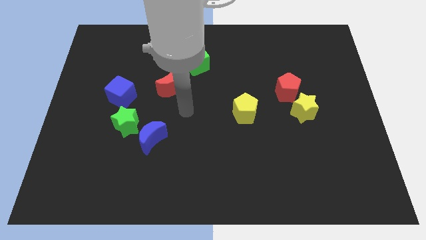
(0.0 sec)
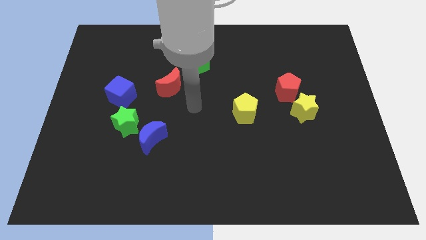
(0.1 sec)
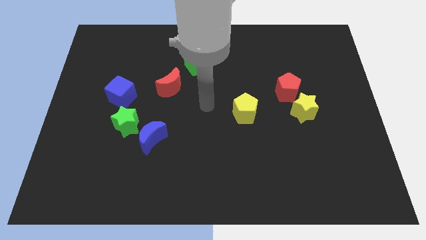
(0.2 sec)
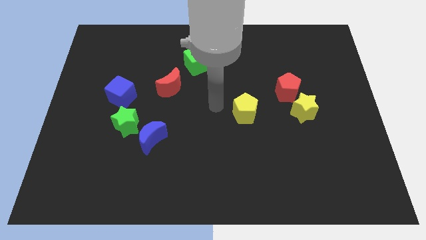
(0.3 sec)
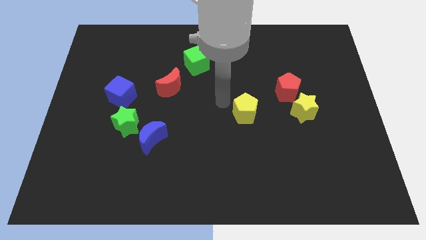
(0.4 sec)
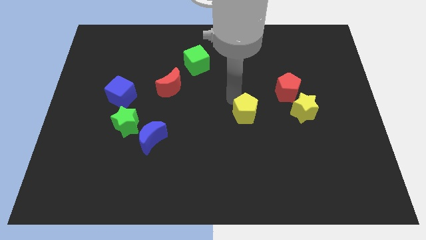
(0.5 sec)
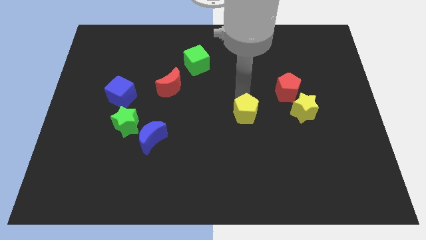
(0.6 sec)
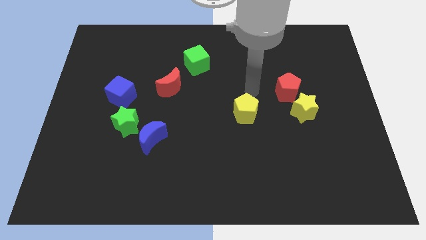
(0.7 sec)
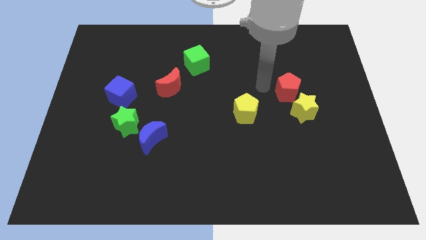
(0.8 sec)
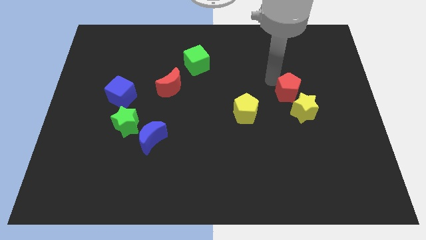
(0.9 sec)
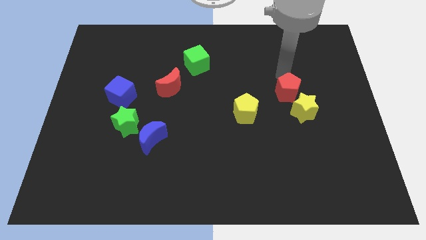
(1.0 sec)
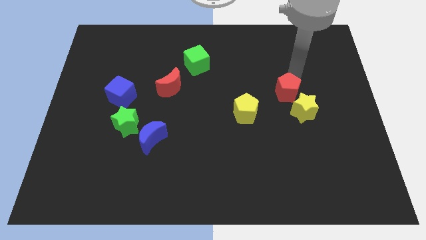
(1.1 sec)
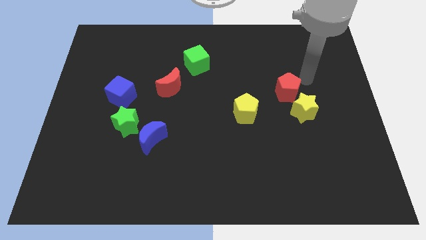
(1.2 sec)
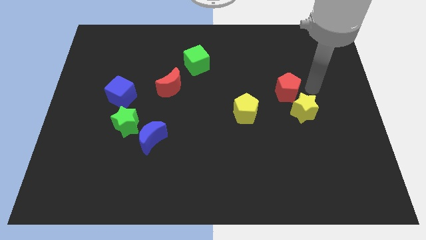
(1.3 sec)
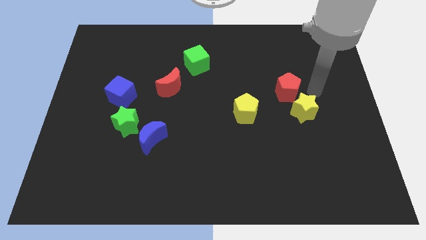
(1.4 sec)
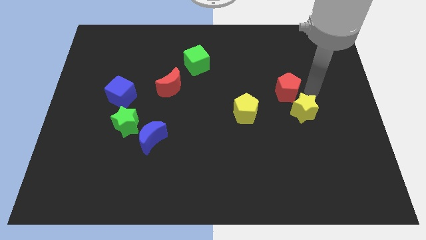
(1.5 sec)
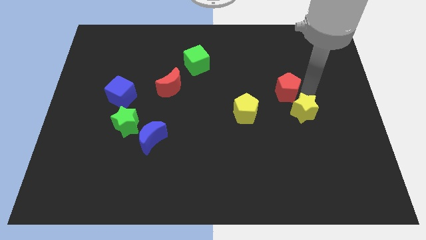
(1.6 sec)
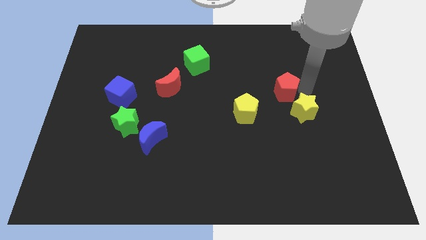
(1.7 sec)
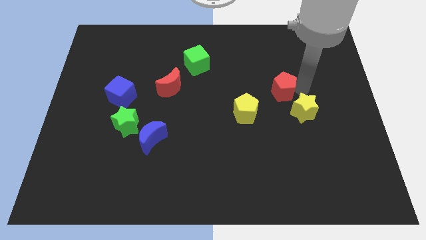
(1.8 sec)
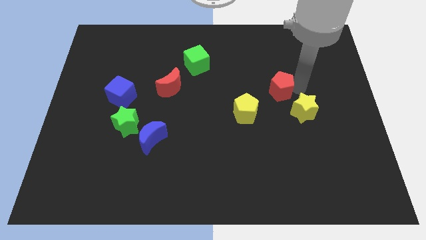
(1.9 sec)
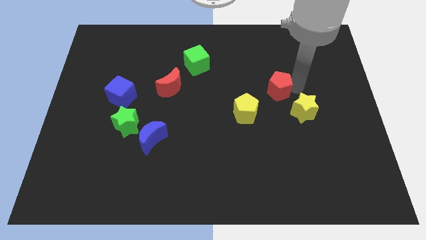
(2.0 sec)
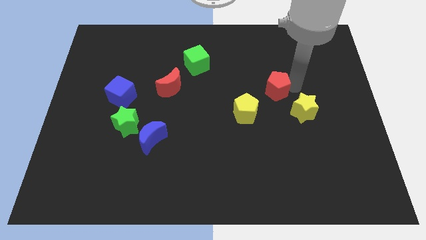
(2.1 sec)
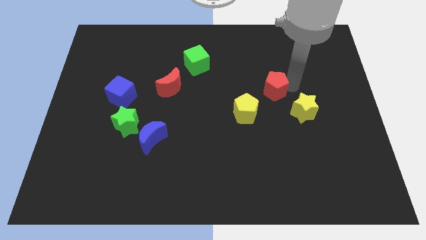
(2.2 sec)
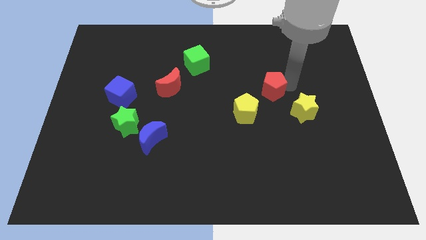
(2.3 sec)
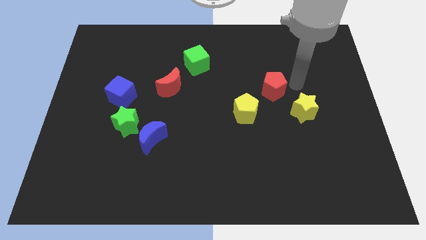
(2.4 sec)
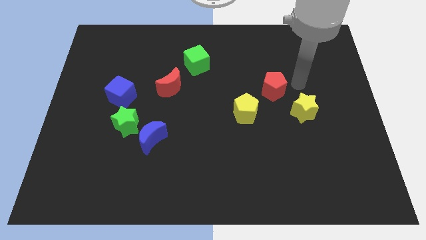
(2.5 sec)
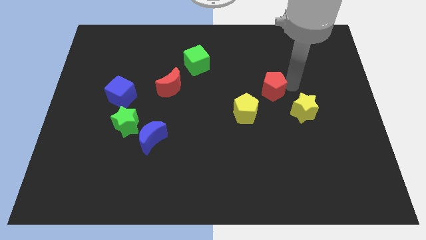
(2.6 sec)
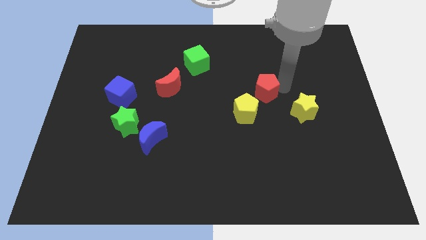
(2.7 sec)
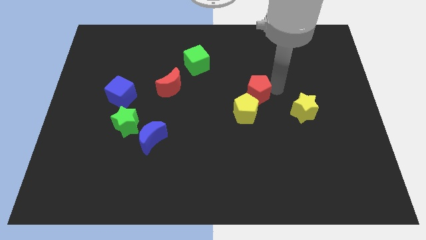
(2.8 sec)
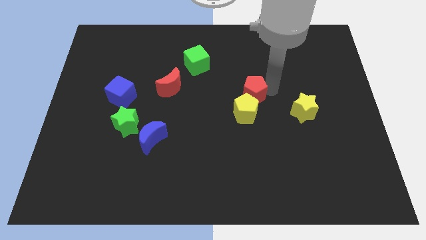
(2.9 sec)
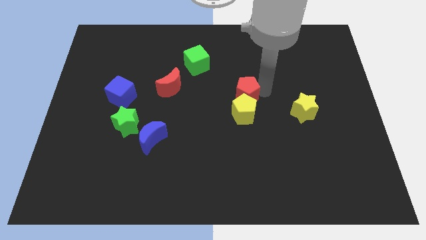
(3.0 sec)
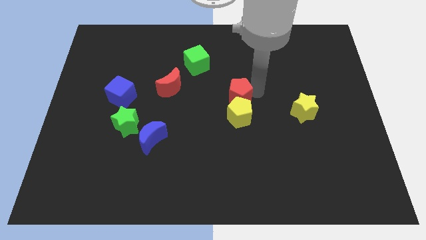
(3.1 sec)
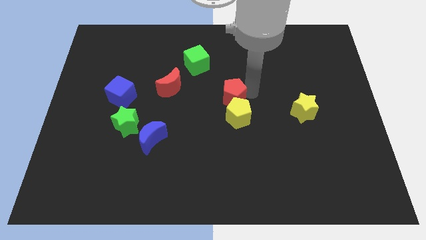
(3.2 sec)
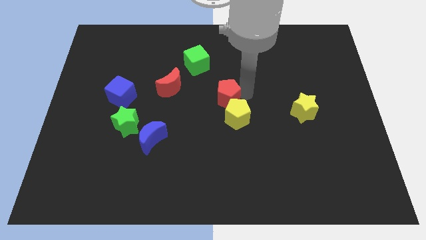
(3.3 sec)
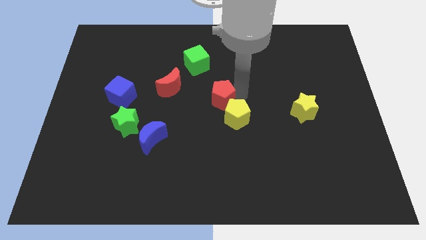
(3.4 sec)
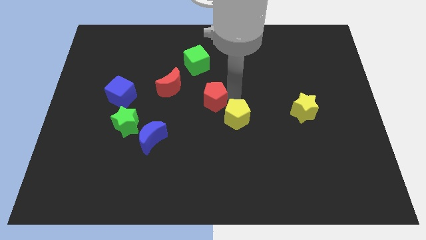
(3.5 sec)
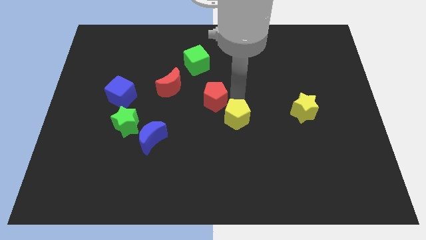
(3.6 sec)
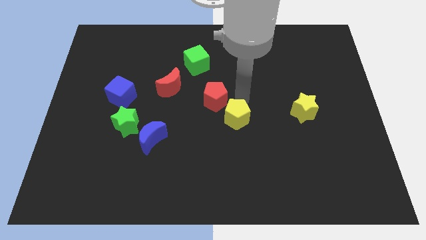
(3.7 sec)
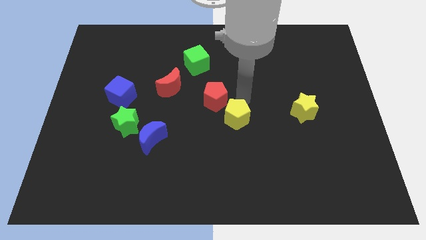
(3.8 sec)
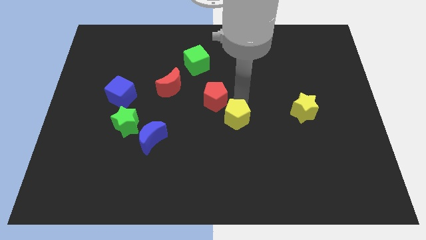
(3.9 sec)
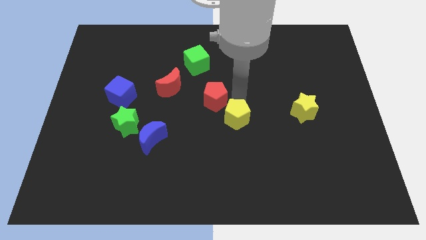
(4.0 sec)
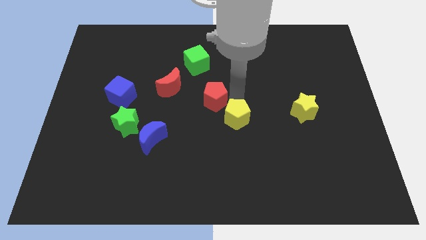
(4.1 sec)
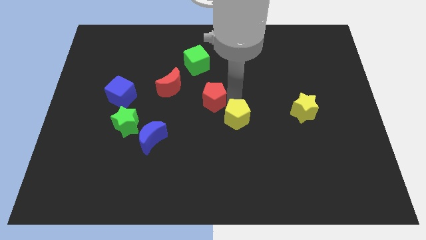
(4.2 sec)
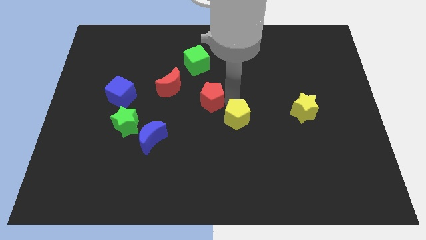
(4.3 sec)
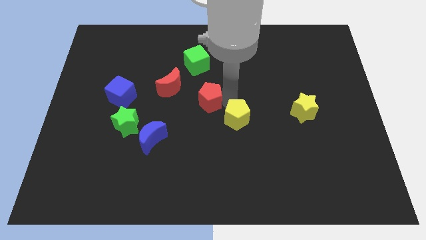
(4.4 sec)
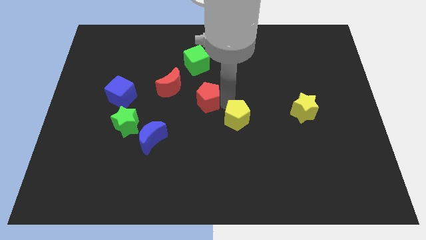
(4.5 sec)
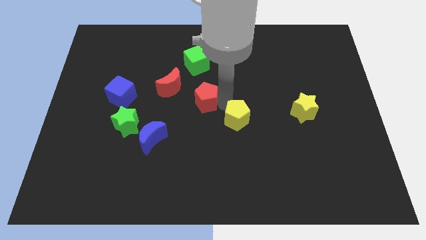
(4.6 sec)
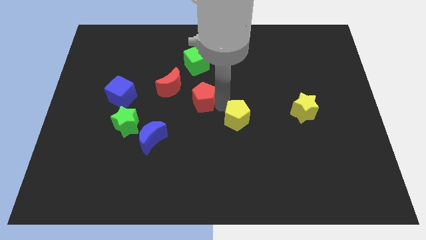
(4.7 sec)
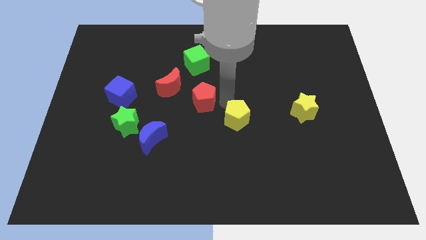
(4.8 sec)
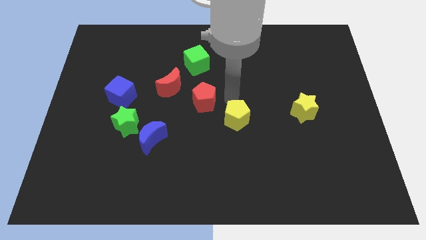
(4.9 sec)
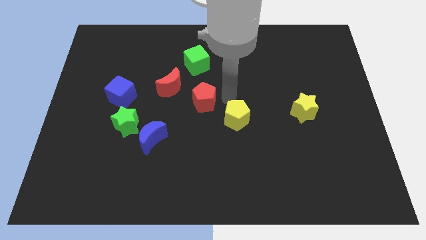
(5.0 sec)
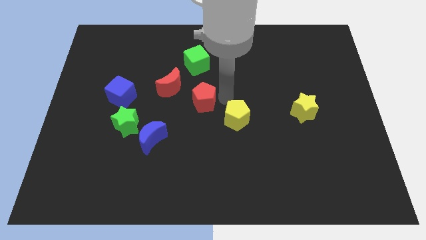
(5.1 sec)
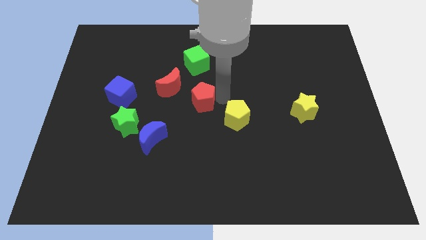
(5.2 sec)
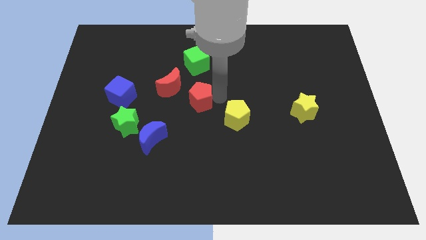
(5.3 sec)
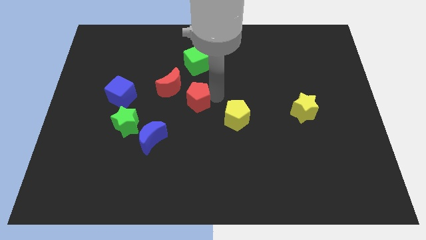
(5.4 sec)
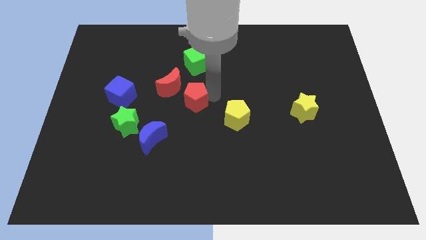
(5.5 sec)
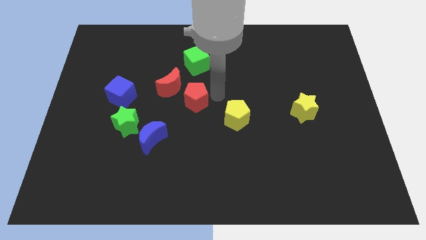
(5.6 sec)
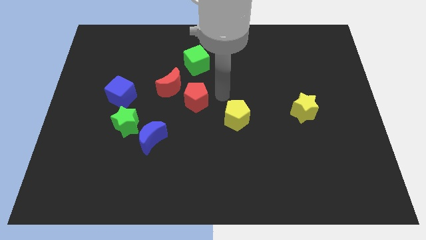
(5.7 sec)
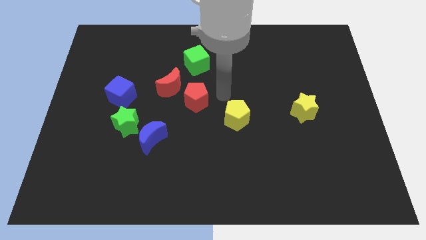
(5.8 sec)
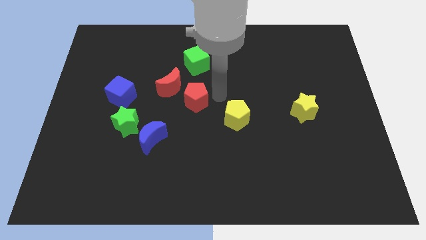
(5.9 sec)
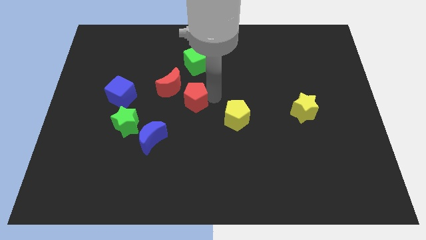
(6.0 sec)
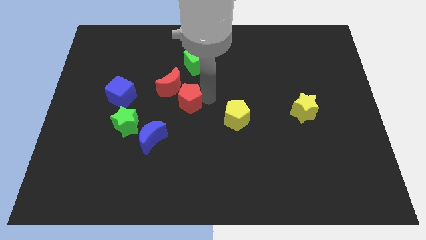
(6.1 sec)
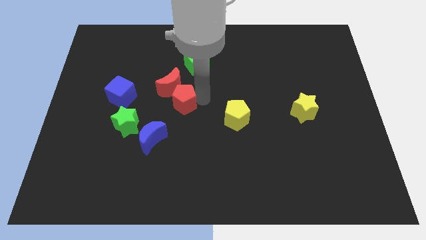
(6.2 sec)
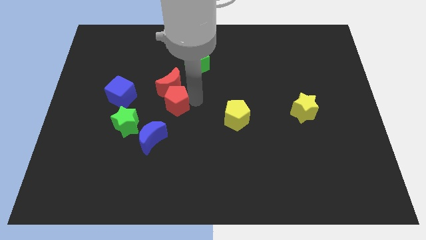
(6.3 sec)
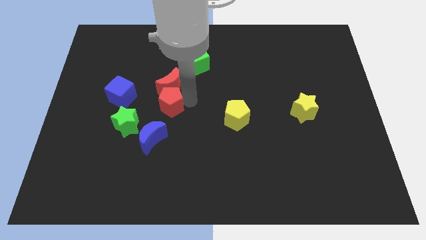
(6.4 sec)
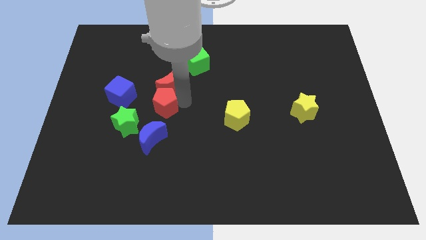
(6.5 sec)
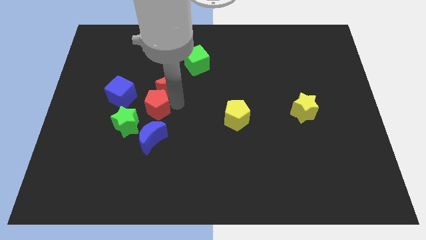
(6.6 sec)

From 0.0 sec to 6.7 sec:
put the red pentagon to the bottom right of the blue cube
